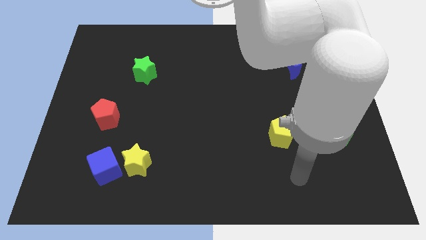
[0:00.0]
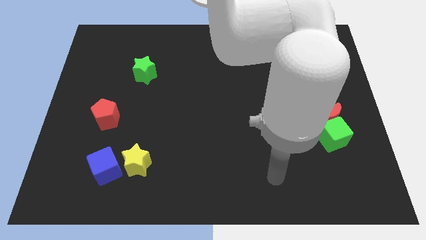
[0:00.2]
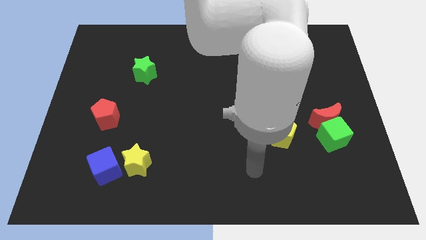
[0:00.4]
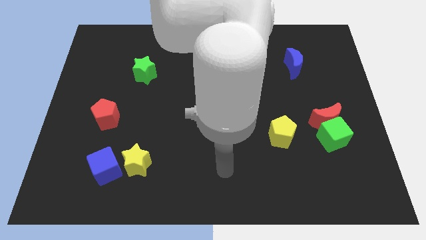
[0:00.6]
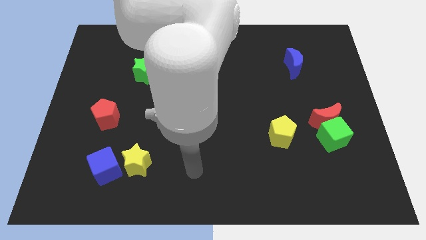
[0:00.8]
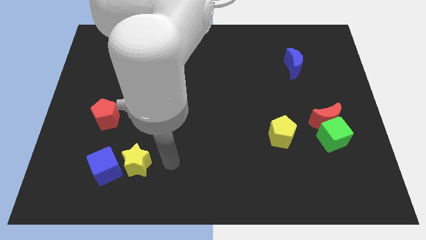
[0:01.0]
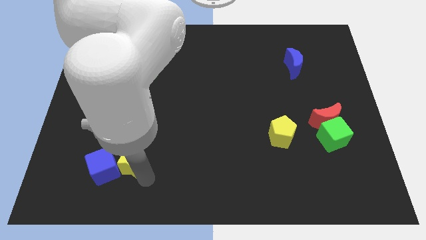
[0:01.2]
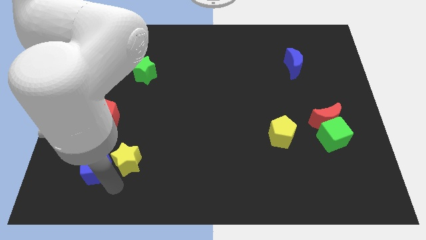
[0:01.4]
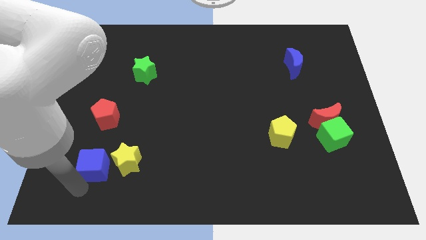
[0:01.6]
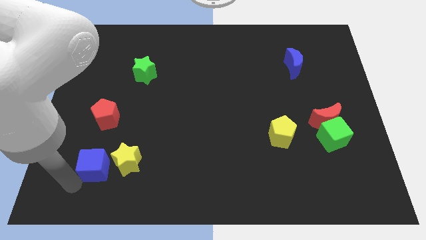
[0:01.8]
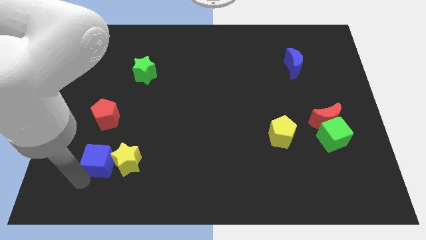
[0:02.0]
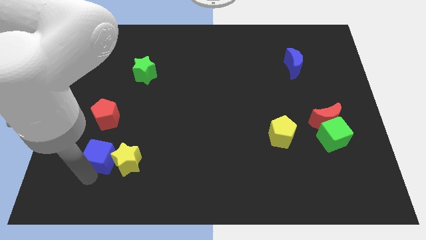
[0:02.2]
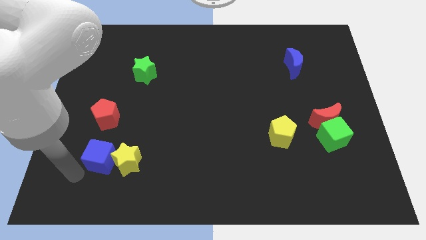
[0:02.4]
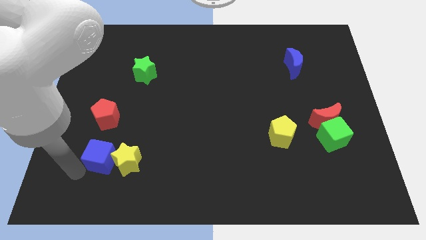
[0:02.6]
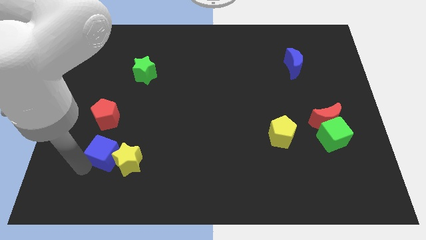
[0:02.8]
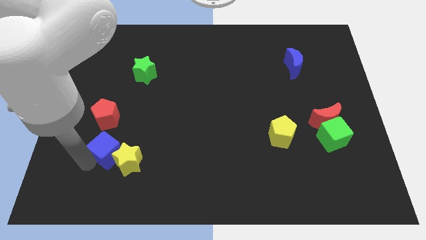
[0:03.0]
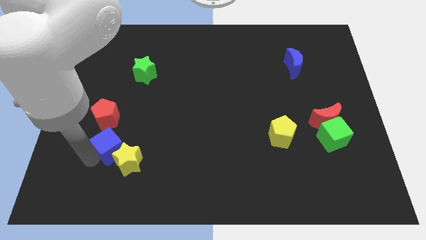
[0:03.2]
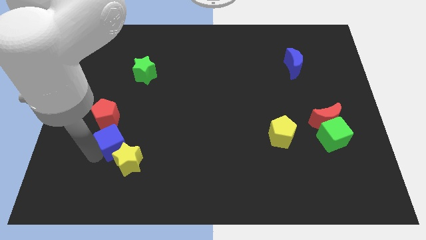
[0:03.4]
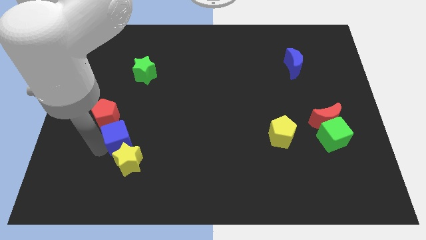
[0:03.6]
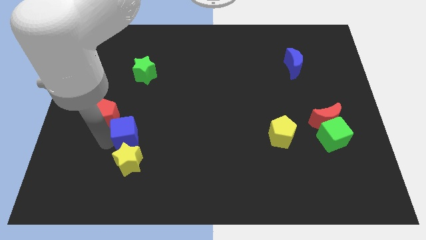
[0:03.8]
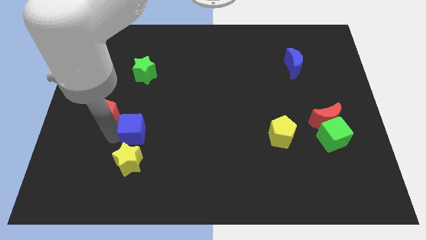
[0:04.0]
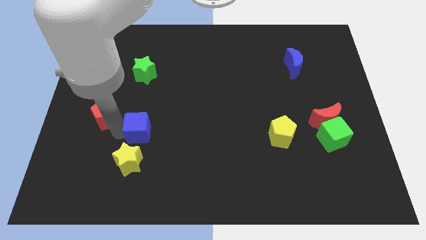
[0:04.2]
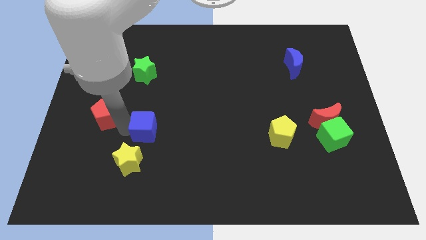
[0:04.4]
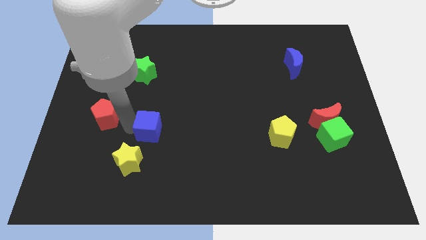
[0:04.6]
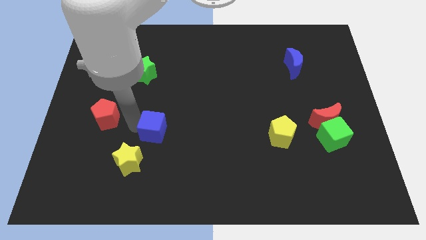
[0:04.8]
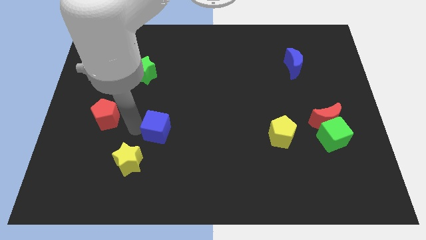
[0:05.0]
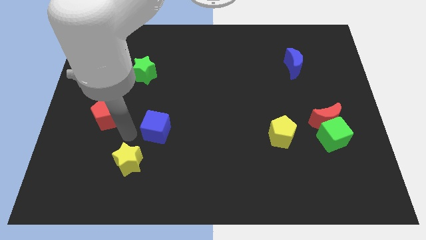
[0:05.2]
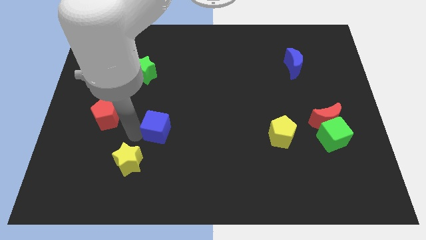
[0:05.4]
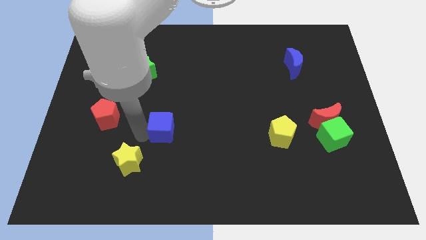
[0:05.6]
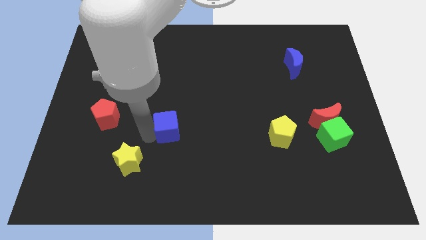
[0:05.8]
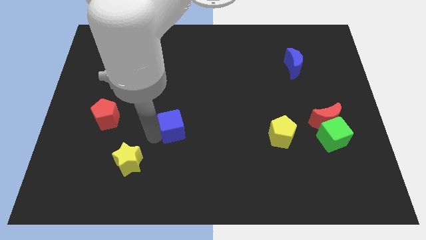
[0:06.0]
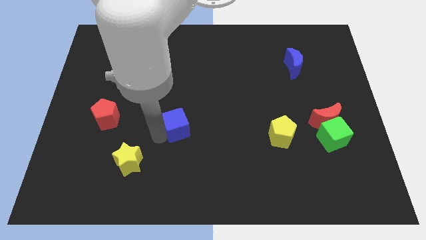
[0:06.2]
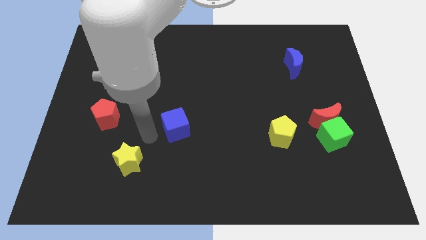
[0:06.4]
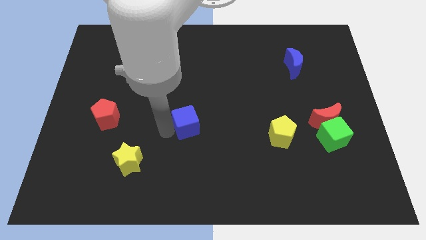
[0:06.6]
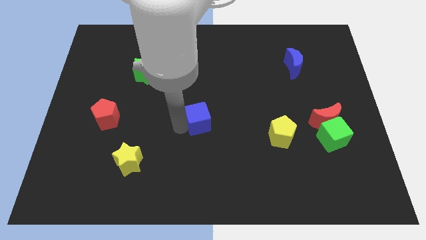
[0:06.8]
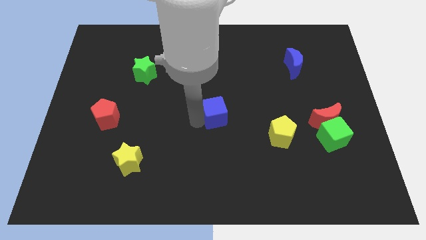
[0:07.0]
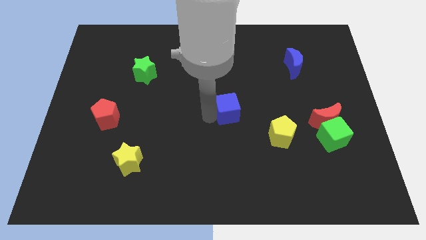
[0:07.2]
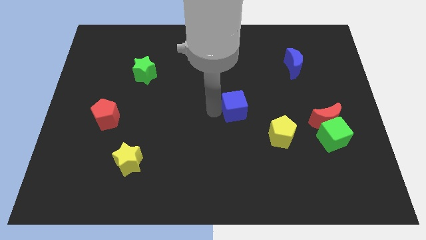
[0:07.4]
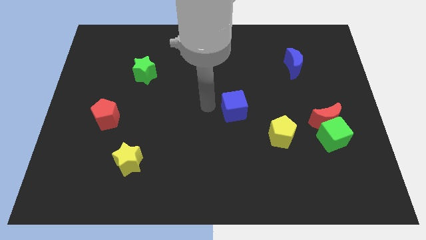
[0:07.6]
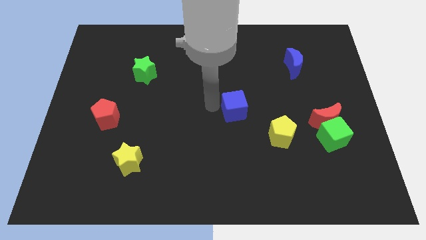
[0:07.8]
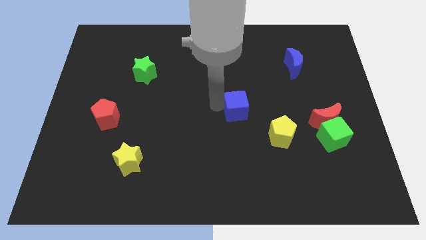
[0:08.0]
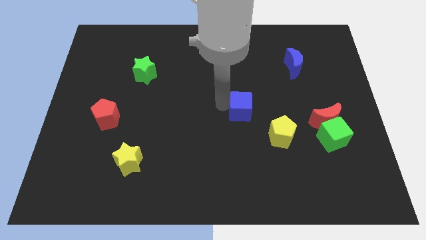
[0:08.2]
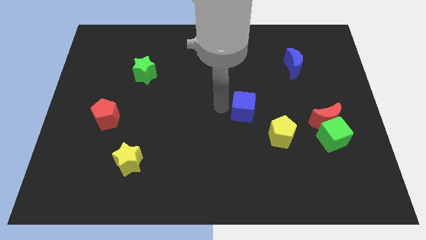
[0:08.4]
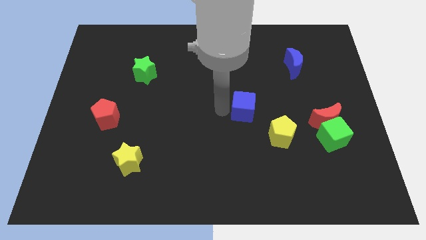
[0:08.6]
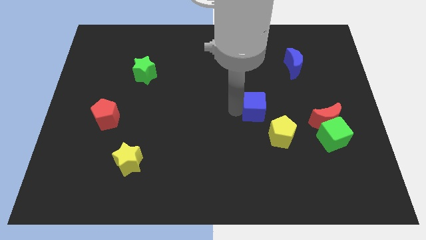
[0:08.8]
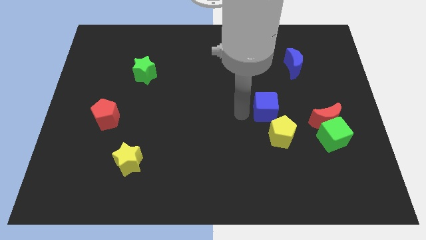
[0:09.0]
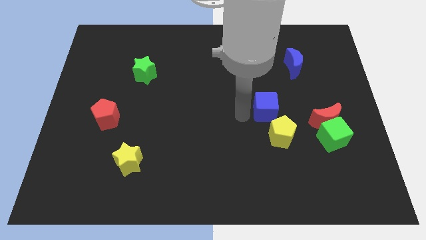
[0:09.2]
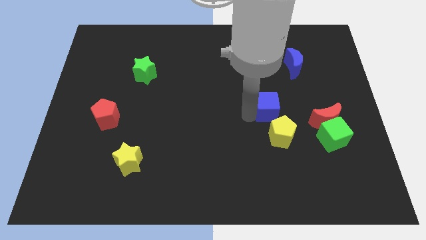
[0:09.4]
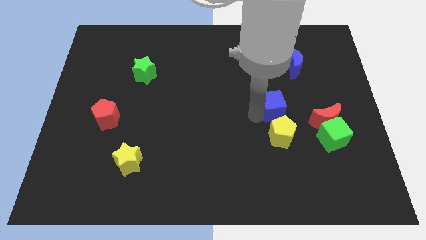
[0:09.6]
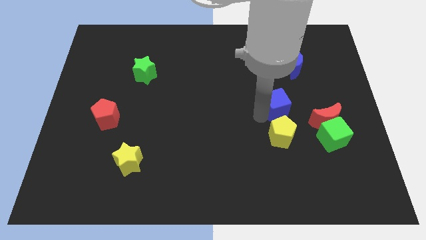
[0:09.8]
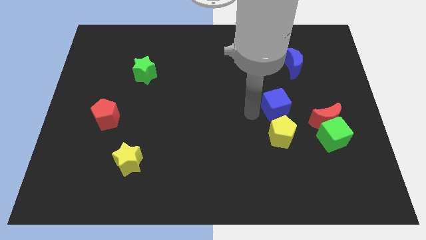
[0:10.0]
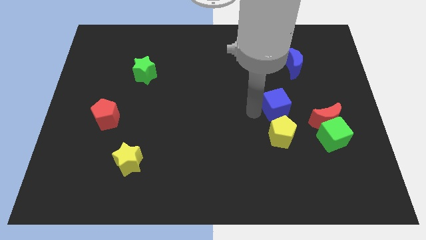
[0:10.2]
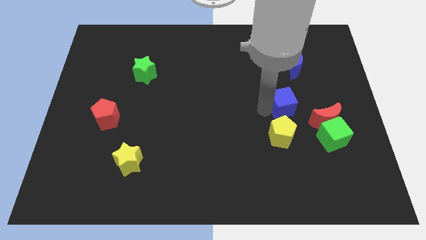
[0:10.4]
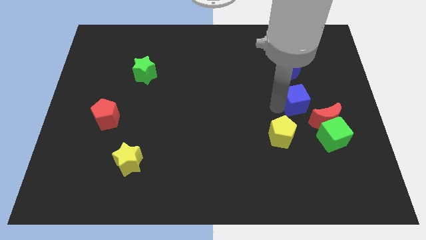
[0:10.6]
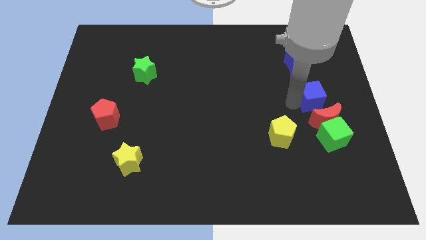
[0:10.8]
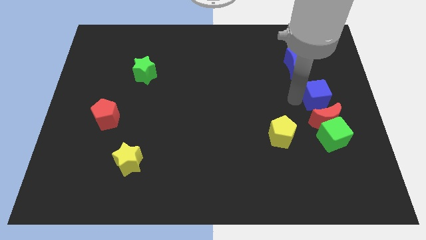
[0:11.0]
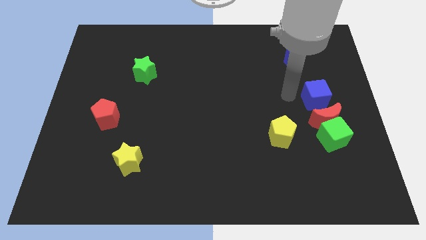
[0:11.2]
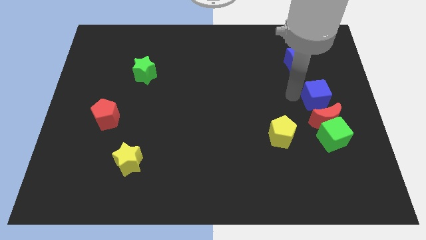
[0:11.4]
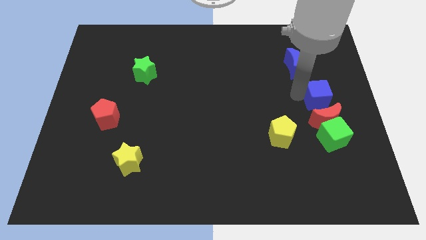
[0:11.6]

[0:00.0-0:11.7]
slide the blue cube to the right side of the board

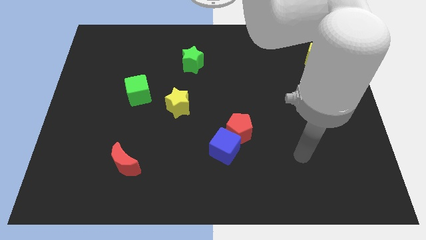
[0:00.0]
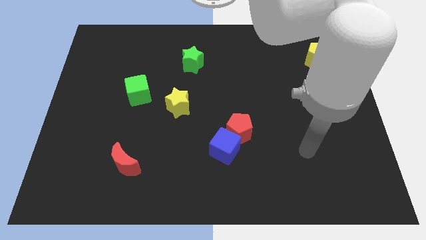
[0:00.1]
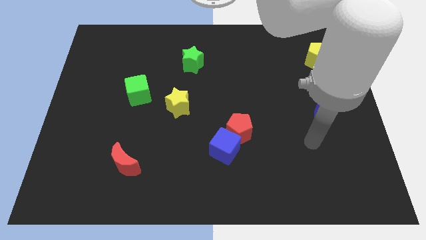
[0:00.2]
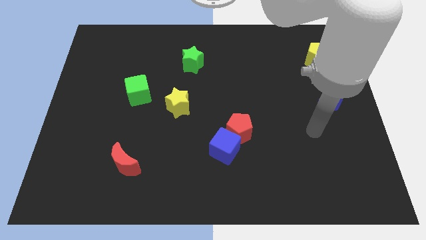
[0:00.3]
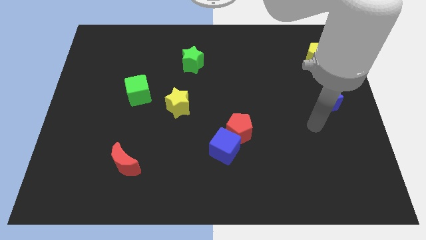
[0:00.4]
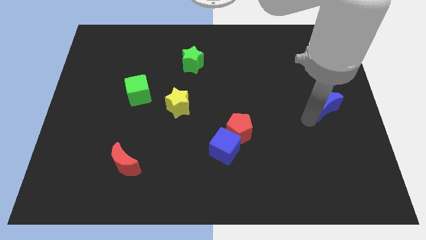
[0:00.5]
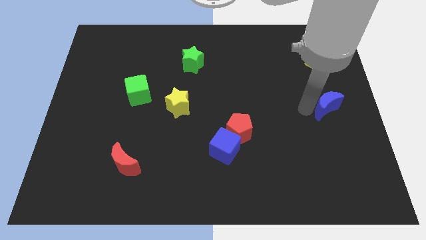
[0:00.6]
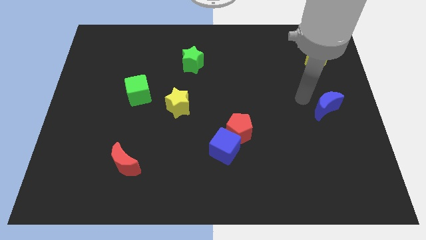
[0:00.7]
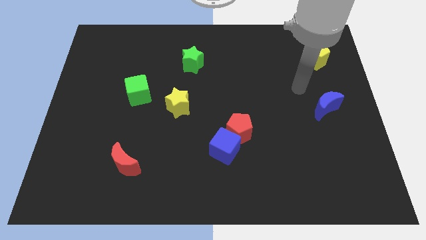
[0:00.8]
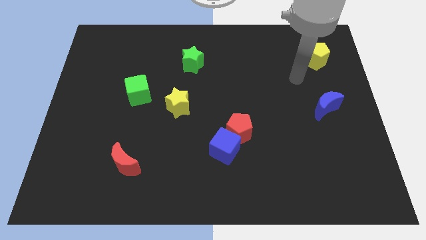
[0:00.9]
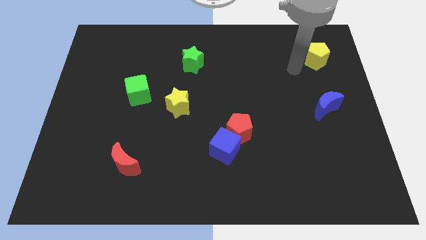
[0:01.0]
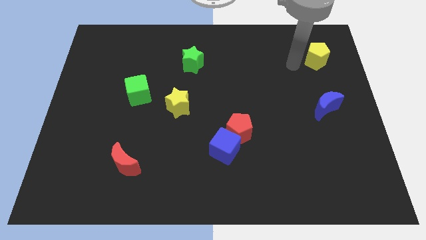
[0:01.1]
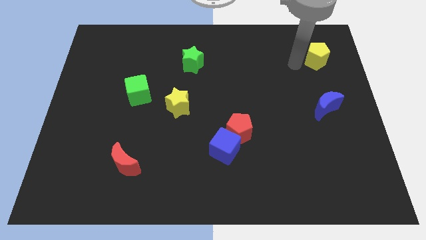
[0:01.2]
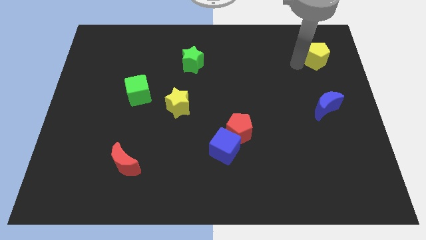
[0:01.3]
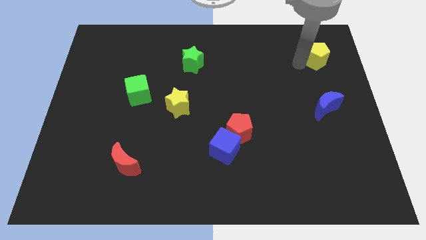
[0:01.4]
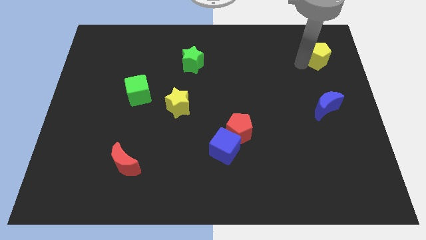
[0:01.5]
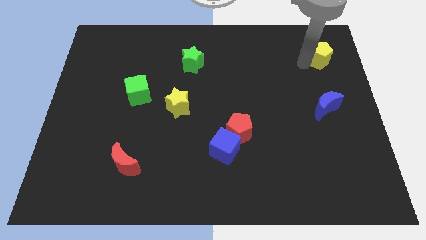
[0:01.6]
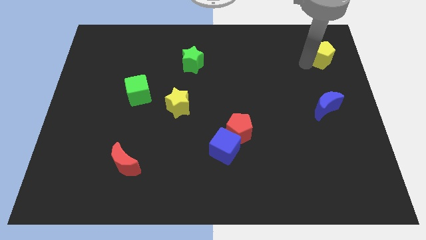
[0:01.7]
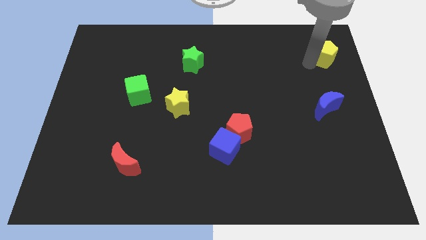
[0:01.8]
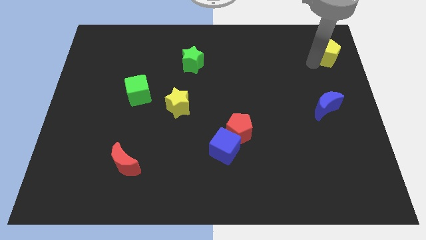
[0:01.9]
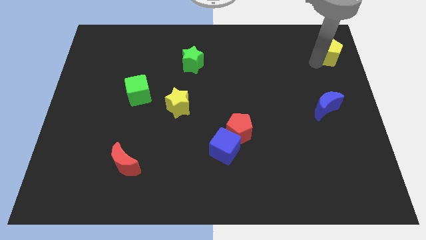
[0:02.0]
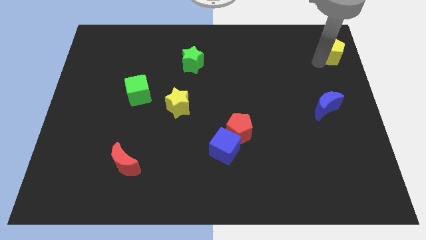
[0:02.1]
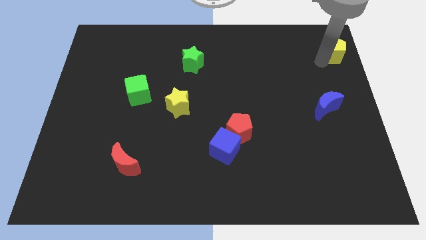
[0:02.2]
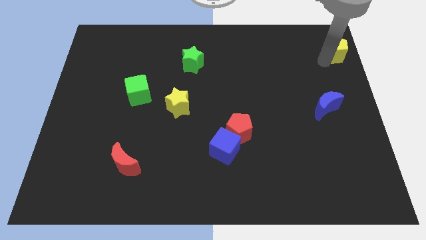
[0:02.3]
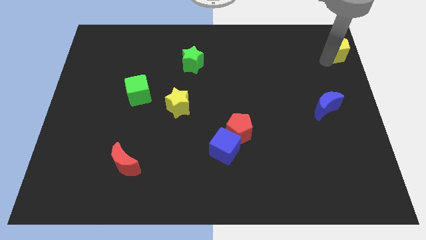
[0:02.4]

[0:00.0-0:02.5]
move the yellow pentagon to the top right corner
